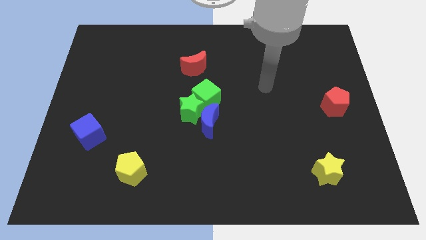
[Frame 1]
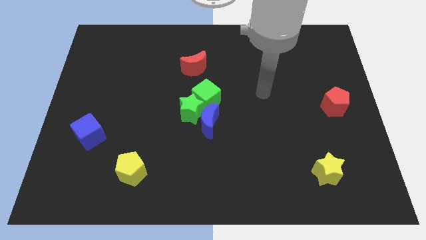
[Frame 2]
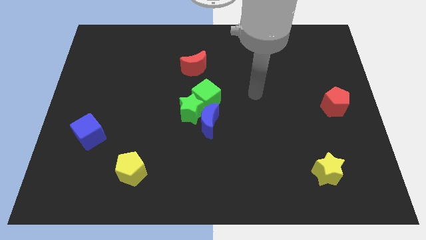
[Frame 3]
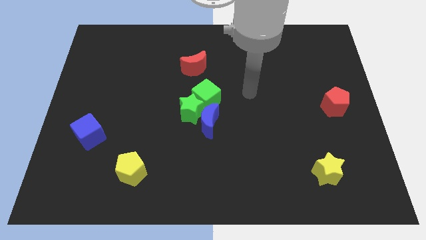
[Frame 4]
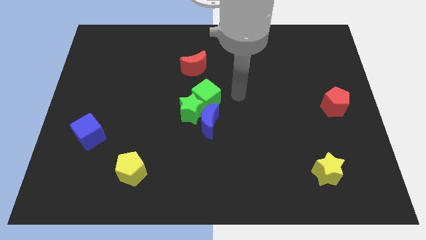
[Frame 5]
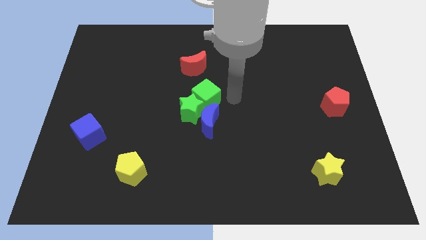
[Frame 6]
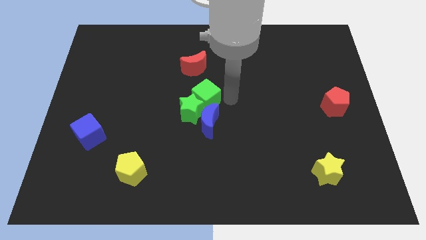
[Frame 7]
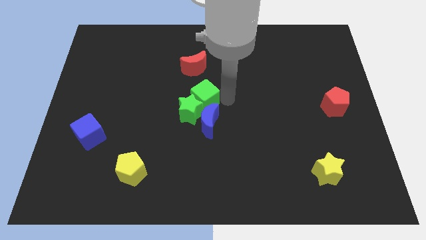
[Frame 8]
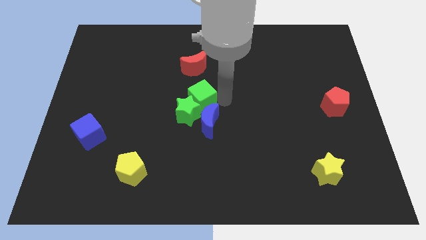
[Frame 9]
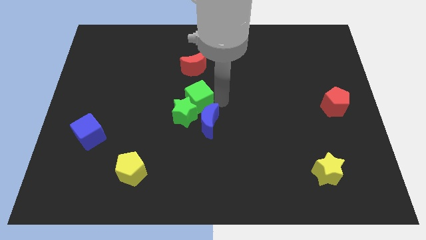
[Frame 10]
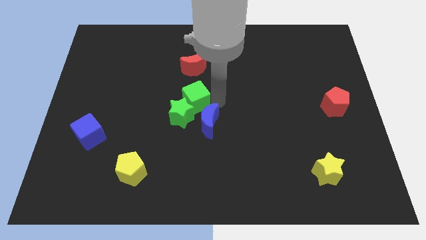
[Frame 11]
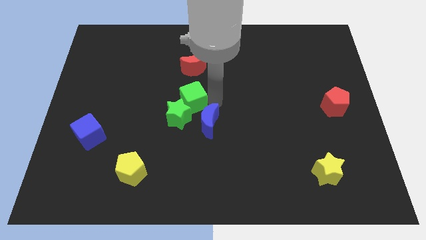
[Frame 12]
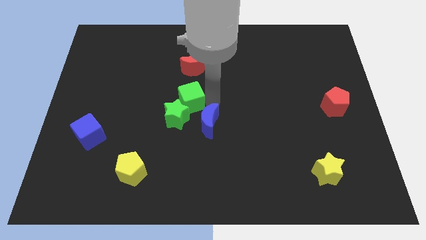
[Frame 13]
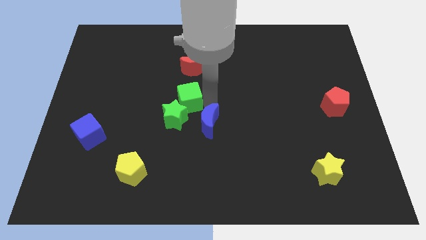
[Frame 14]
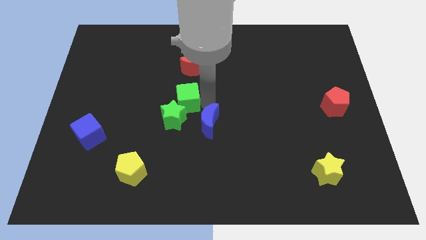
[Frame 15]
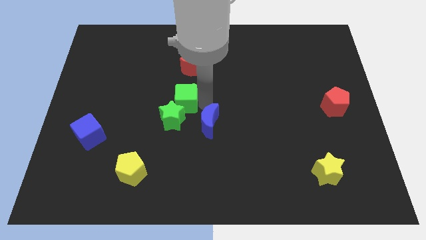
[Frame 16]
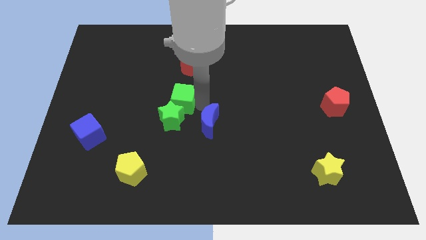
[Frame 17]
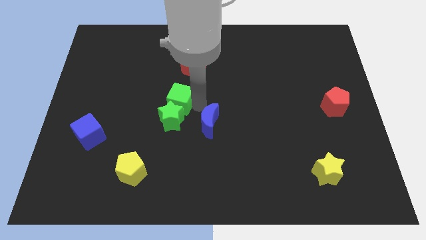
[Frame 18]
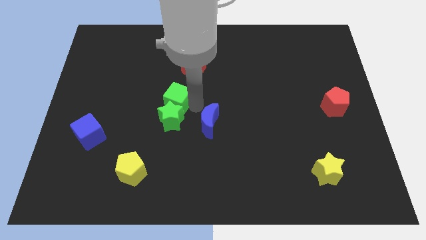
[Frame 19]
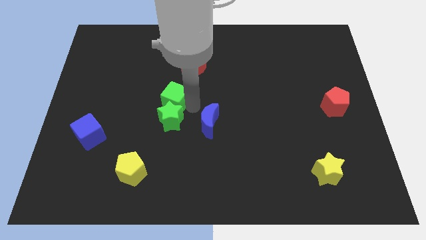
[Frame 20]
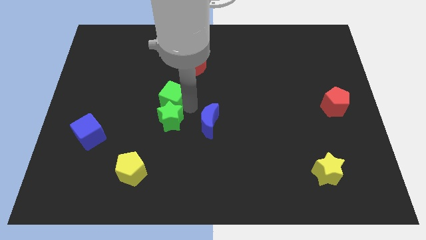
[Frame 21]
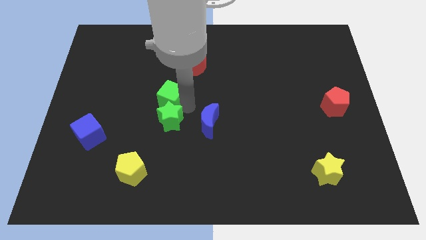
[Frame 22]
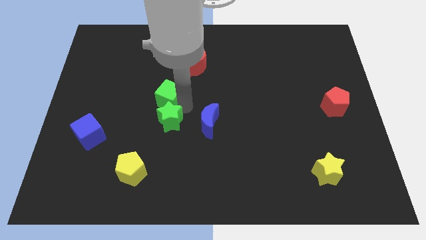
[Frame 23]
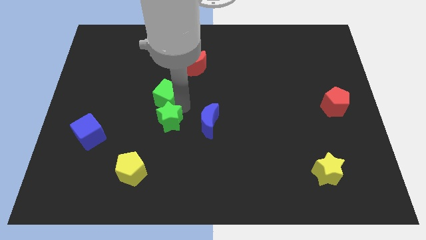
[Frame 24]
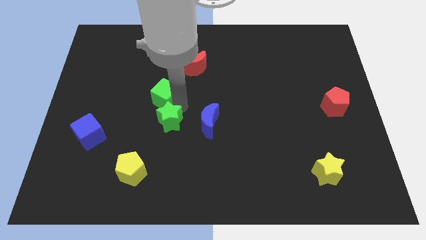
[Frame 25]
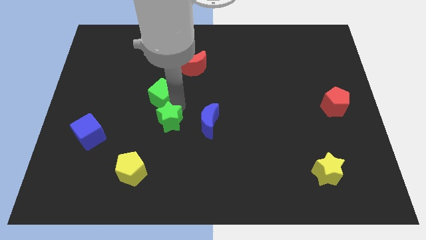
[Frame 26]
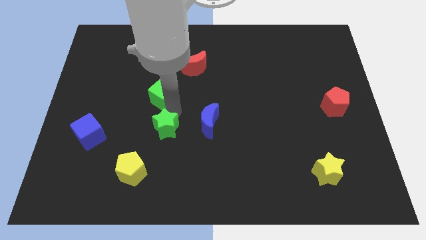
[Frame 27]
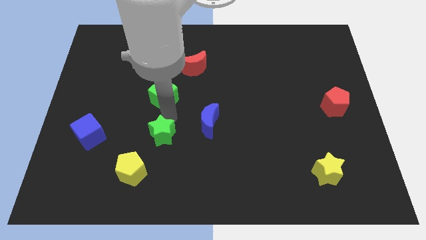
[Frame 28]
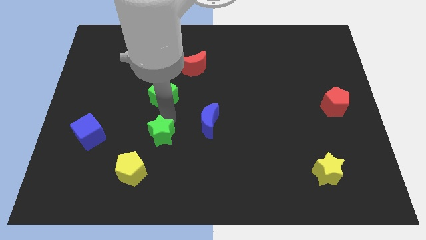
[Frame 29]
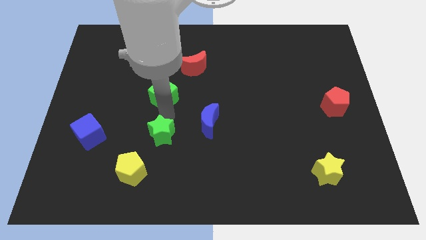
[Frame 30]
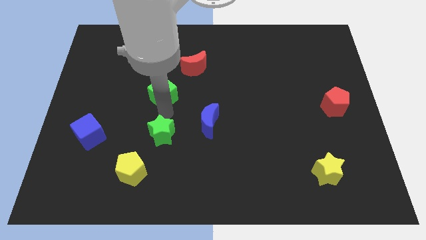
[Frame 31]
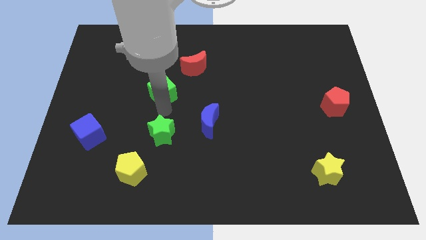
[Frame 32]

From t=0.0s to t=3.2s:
slide the green cube diagonally up and left slightly

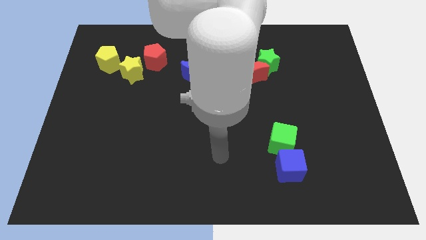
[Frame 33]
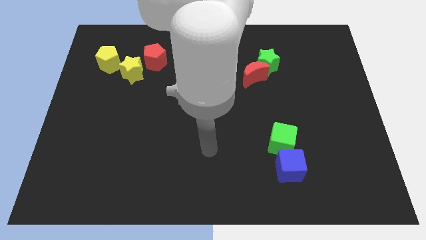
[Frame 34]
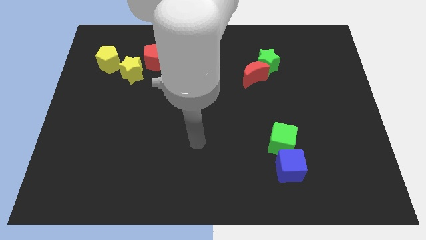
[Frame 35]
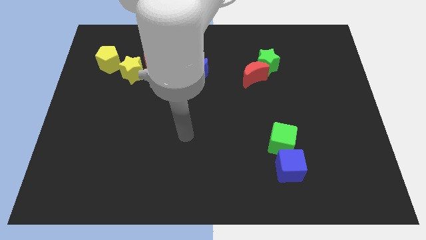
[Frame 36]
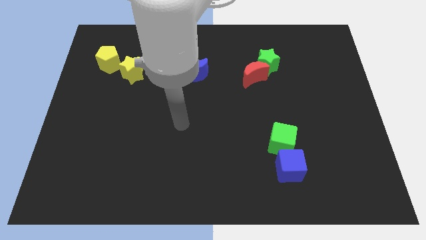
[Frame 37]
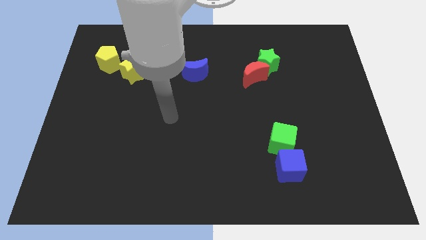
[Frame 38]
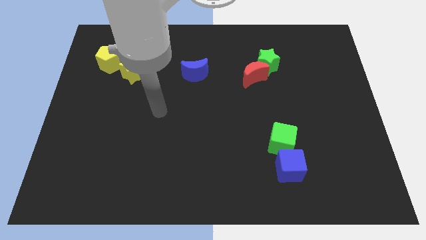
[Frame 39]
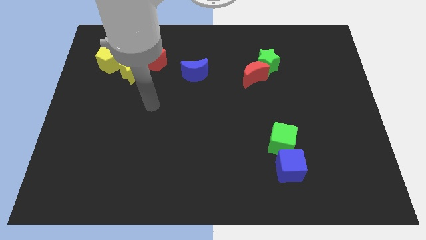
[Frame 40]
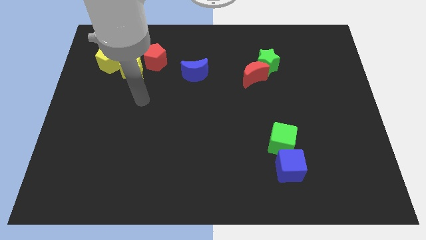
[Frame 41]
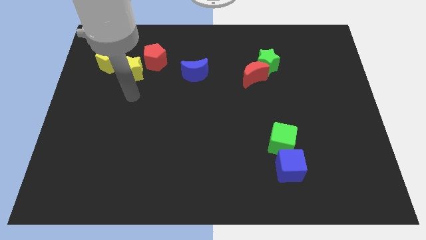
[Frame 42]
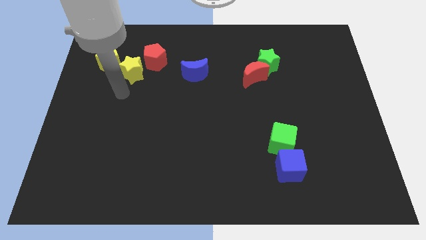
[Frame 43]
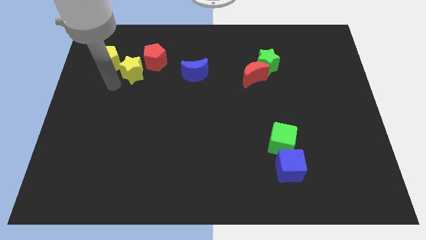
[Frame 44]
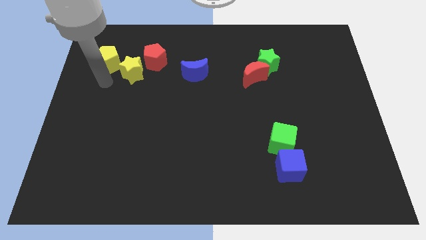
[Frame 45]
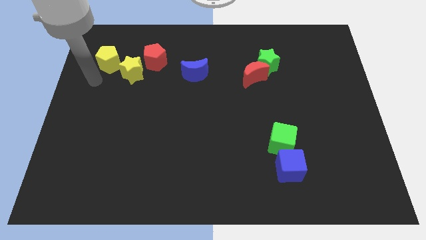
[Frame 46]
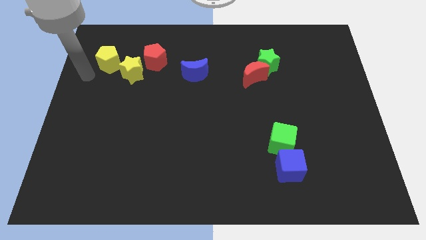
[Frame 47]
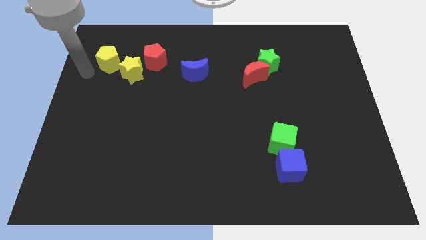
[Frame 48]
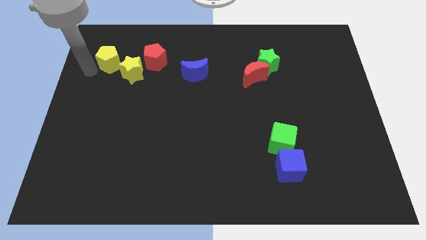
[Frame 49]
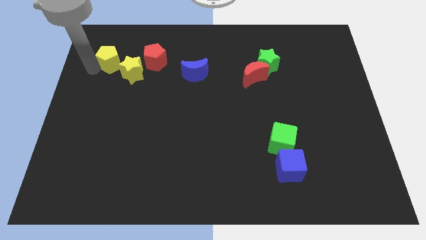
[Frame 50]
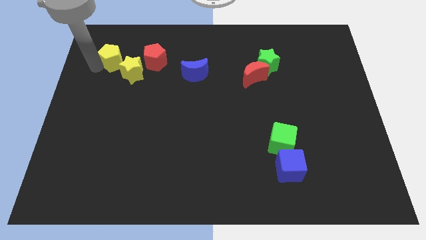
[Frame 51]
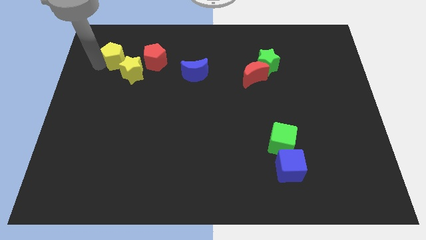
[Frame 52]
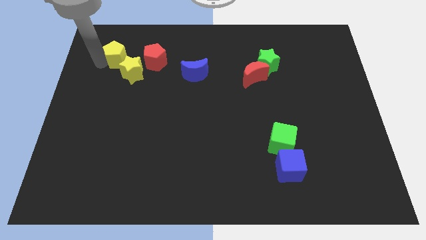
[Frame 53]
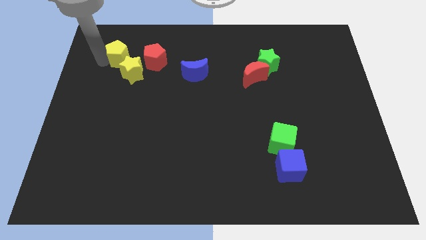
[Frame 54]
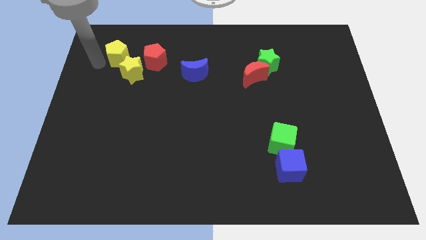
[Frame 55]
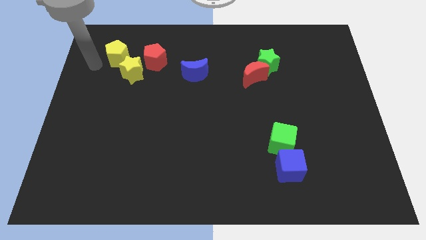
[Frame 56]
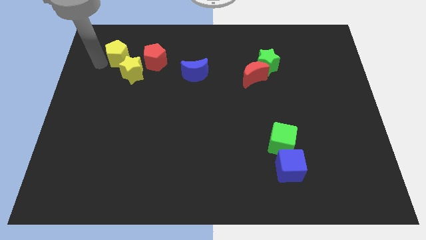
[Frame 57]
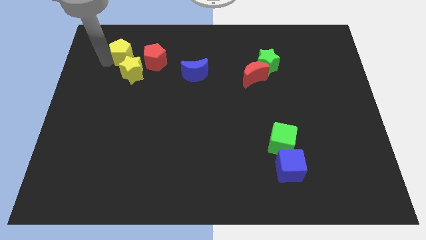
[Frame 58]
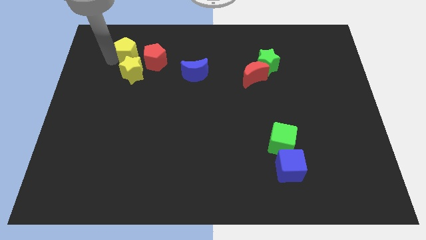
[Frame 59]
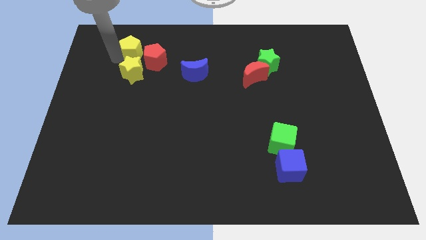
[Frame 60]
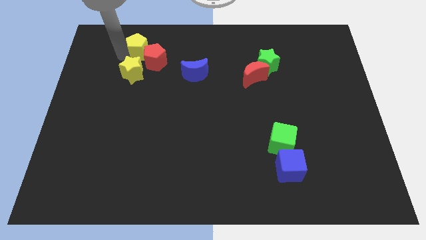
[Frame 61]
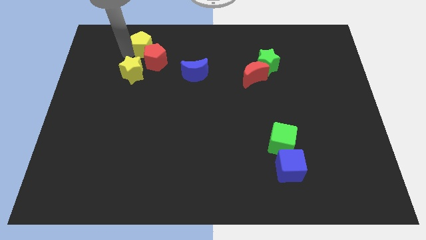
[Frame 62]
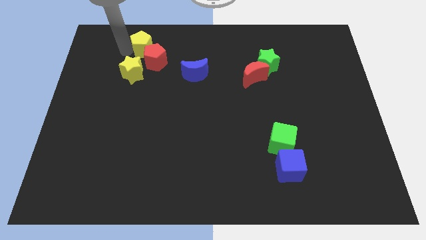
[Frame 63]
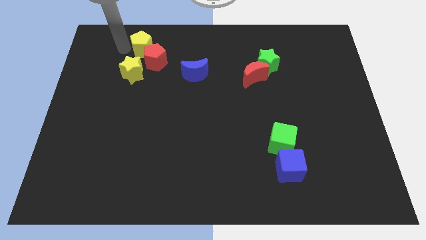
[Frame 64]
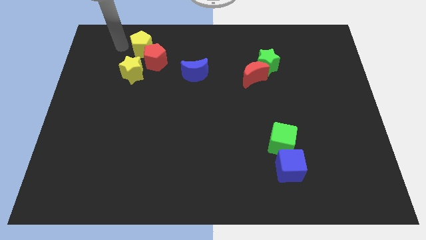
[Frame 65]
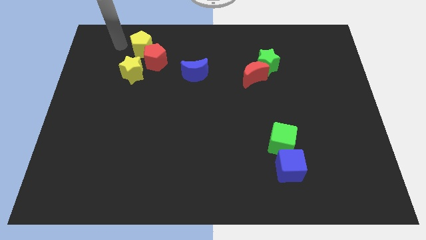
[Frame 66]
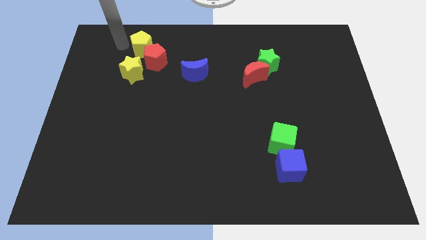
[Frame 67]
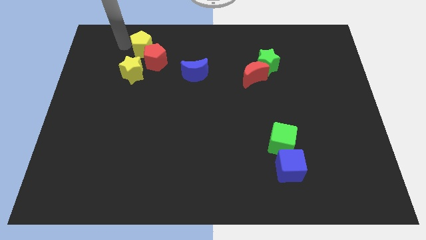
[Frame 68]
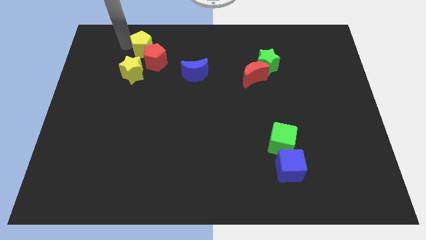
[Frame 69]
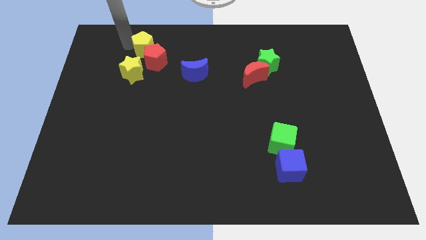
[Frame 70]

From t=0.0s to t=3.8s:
move the yellow pentagon right a bit

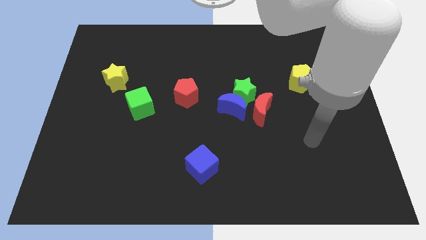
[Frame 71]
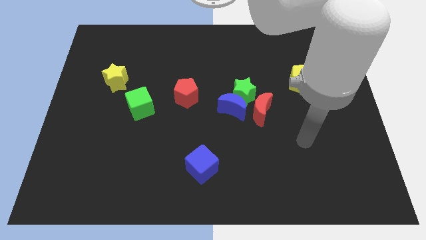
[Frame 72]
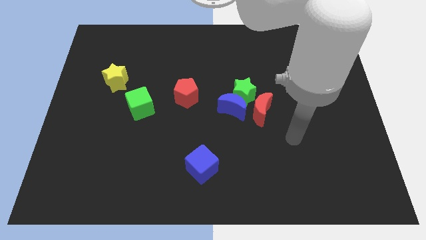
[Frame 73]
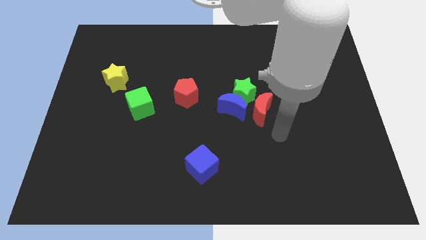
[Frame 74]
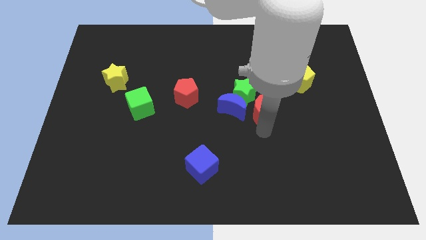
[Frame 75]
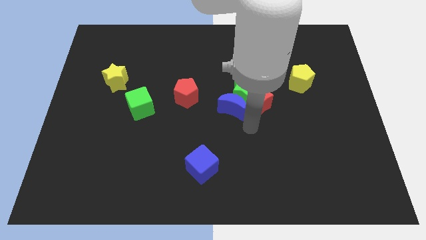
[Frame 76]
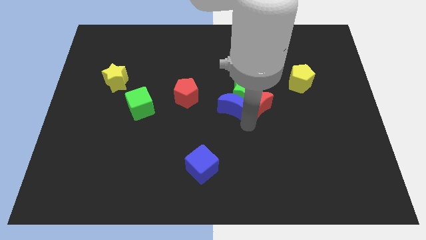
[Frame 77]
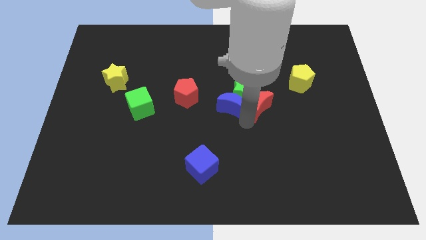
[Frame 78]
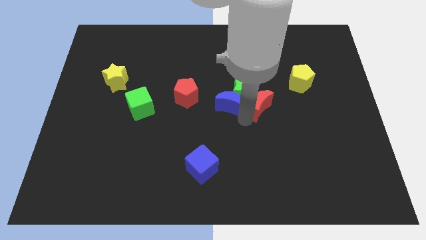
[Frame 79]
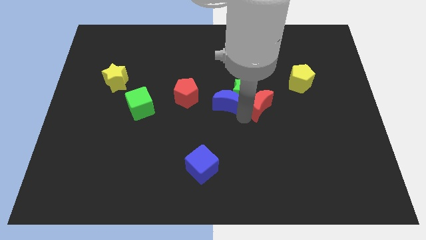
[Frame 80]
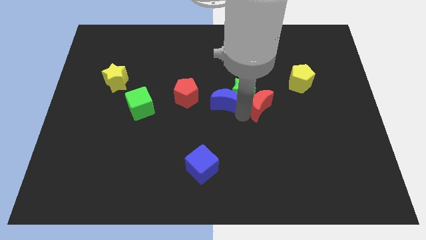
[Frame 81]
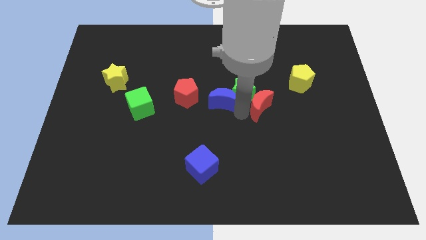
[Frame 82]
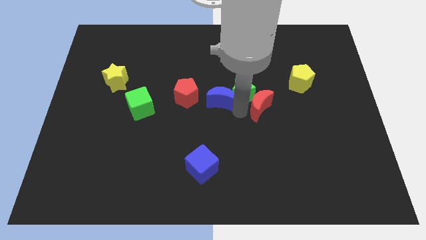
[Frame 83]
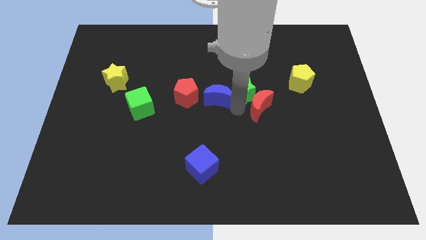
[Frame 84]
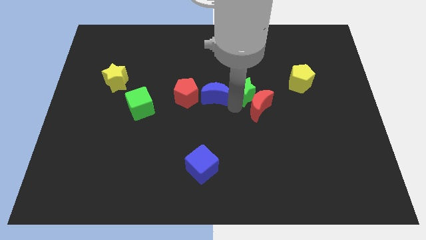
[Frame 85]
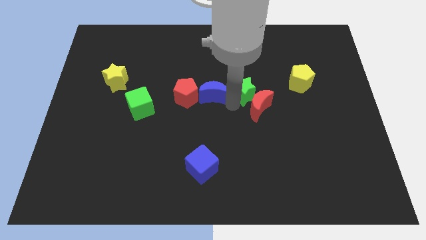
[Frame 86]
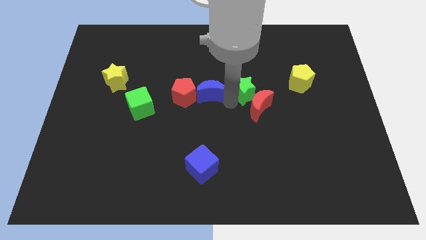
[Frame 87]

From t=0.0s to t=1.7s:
slightly move the blue moon up and to the left diagonally
